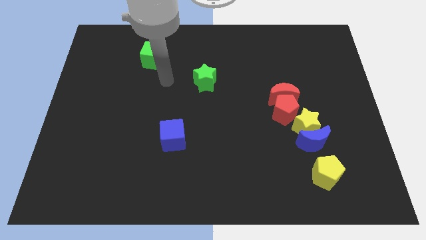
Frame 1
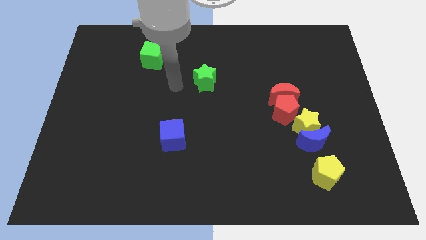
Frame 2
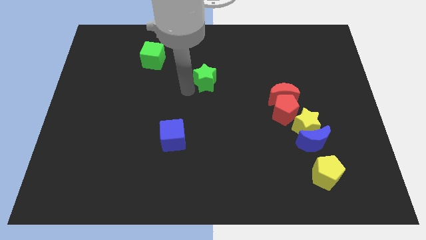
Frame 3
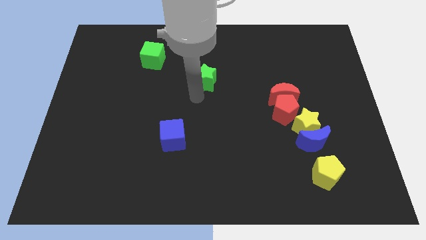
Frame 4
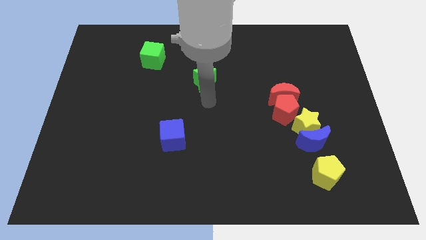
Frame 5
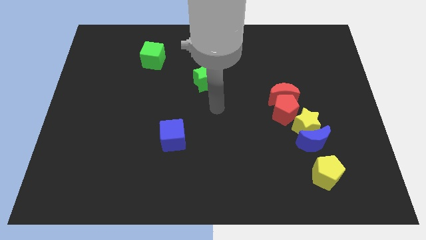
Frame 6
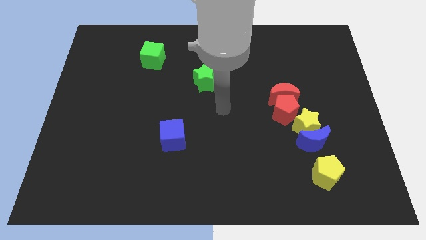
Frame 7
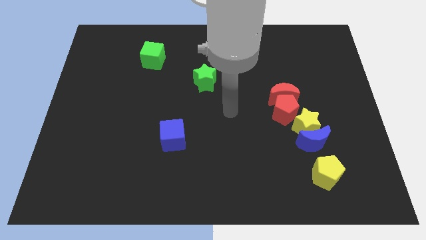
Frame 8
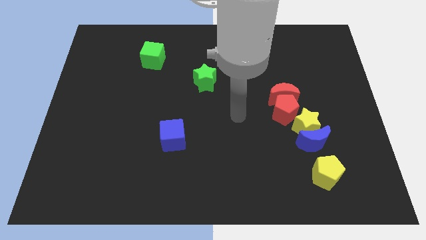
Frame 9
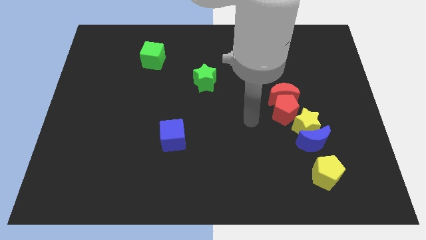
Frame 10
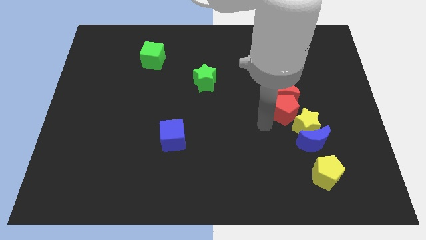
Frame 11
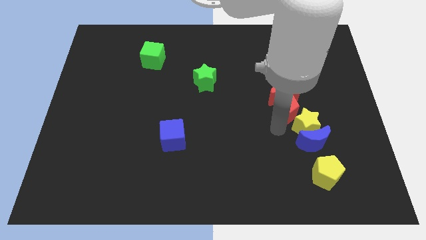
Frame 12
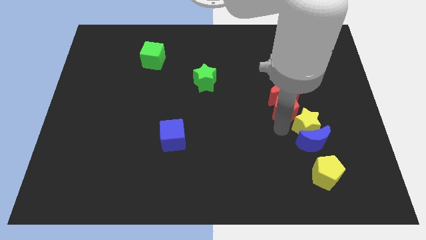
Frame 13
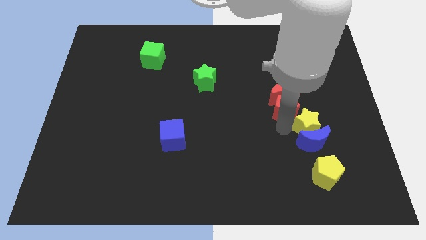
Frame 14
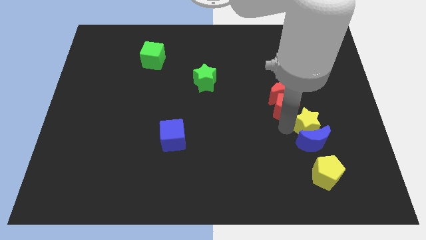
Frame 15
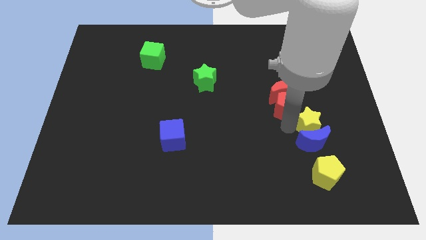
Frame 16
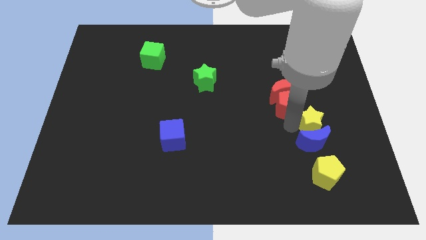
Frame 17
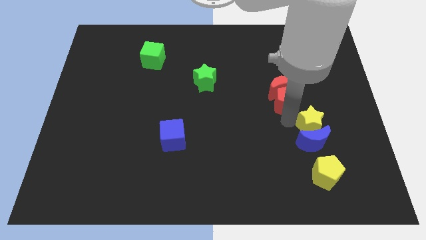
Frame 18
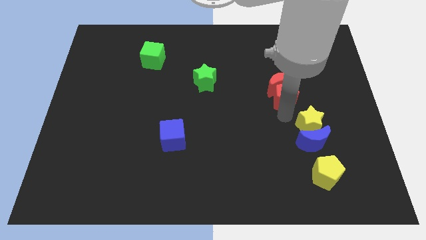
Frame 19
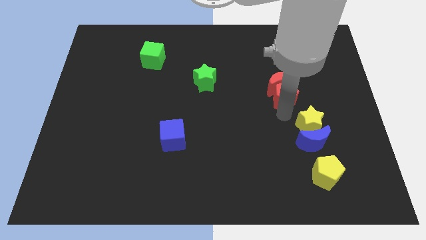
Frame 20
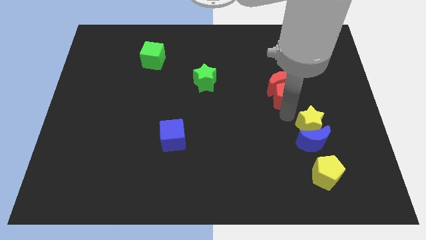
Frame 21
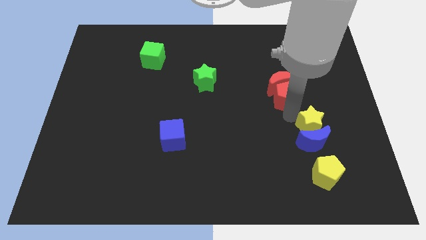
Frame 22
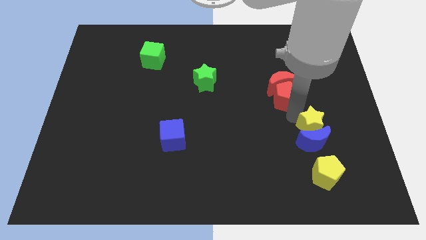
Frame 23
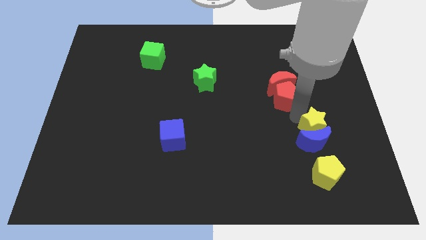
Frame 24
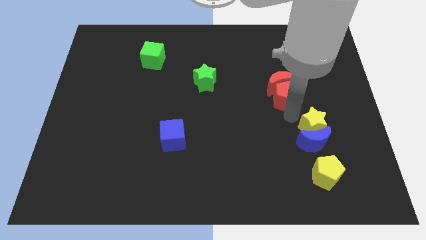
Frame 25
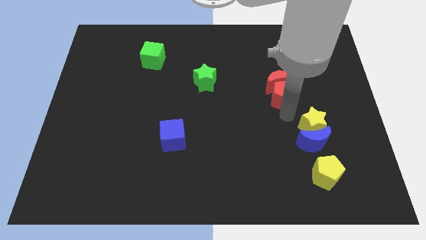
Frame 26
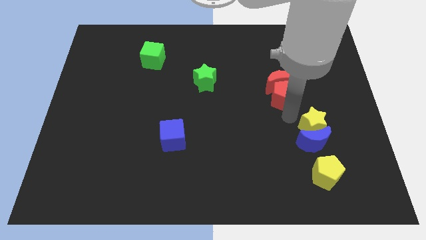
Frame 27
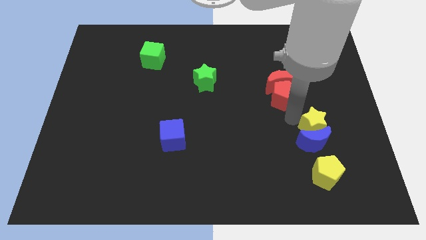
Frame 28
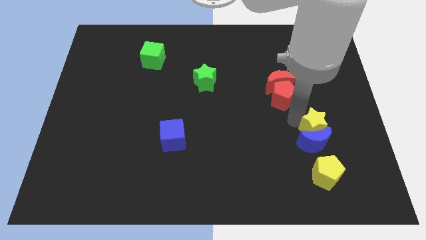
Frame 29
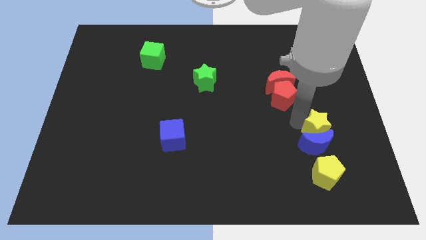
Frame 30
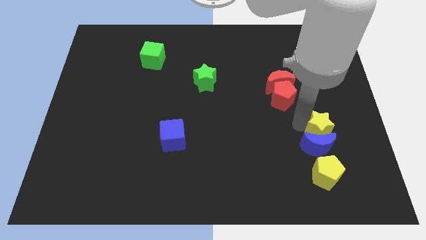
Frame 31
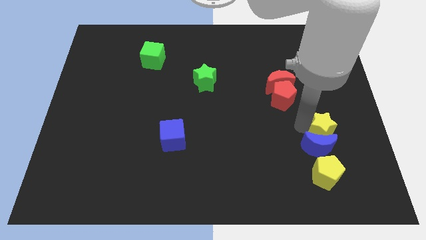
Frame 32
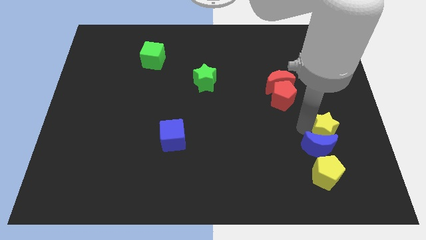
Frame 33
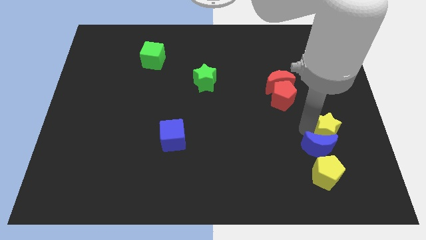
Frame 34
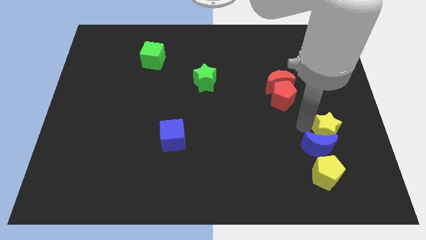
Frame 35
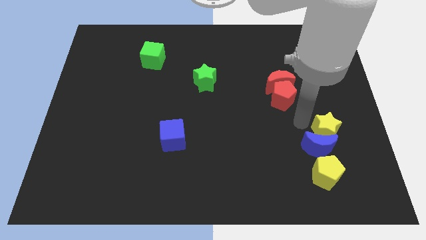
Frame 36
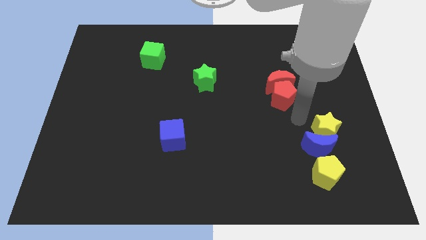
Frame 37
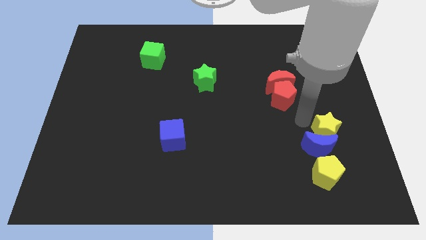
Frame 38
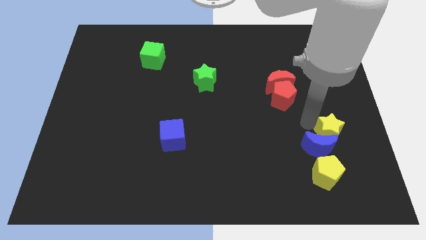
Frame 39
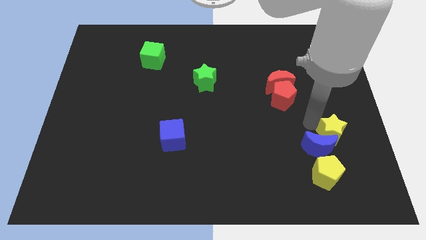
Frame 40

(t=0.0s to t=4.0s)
pull the yellow star apart from the clump

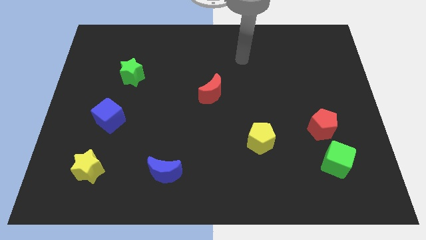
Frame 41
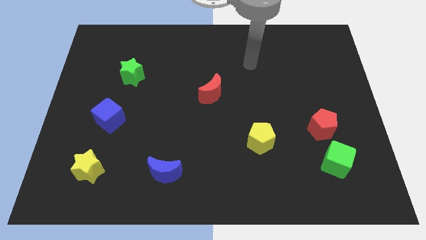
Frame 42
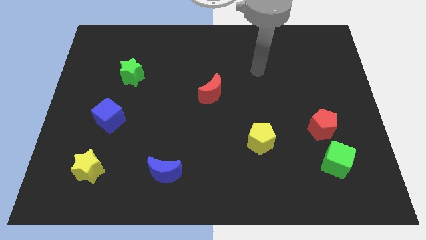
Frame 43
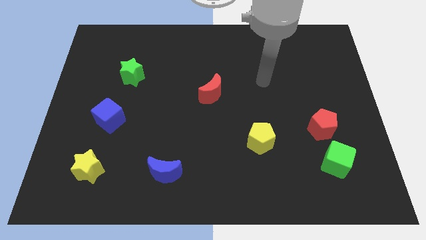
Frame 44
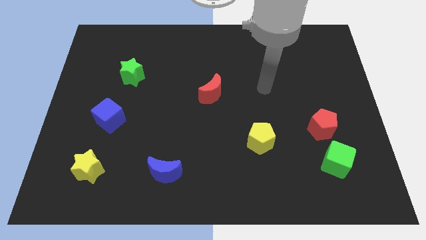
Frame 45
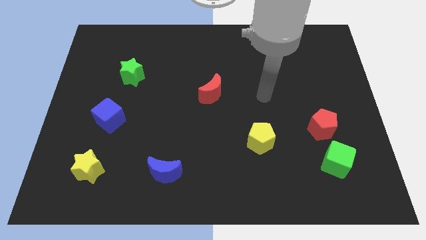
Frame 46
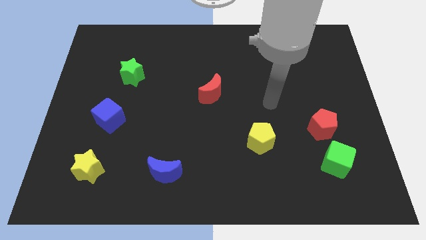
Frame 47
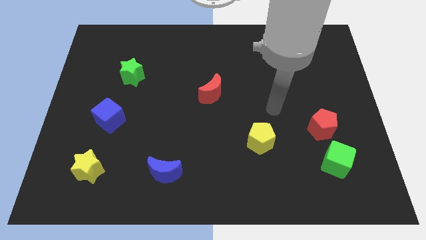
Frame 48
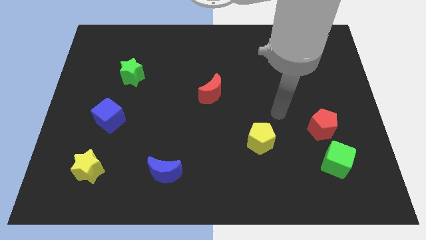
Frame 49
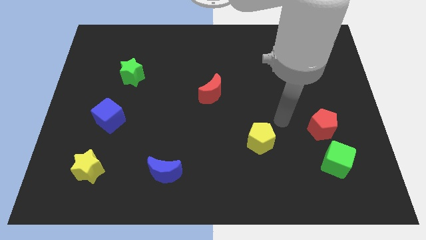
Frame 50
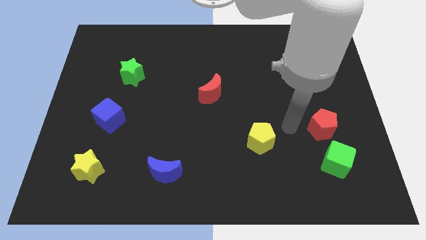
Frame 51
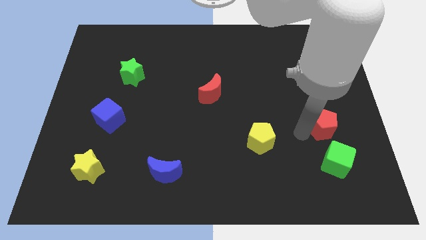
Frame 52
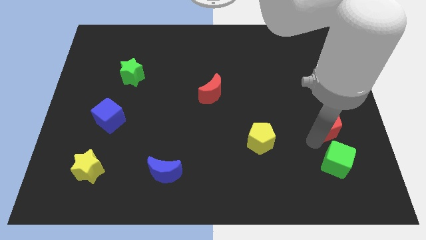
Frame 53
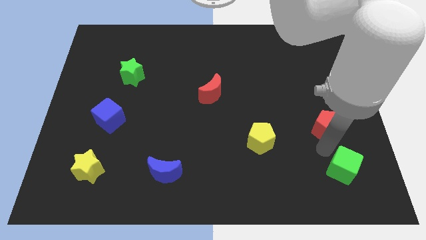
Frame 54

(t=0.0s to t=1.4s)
separate the red pentagon from the green cube

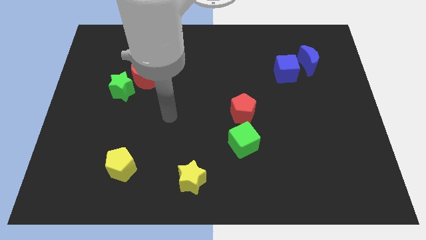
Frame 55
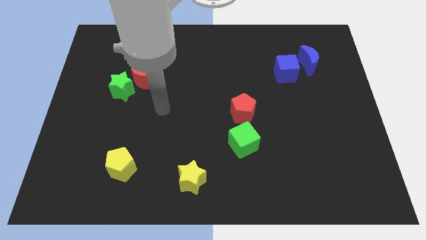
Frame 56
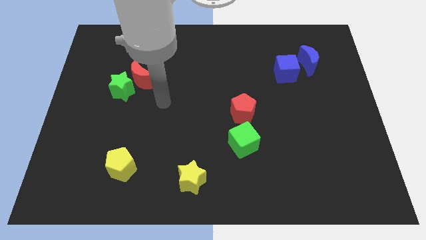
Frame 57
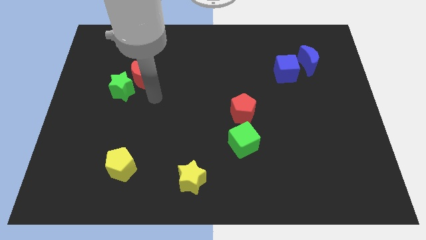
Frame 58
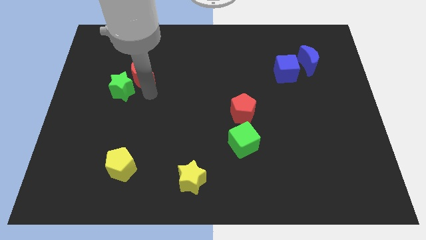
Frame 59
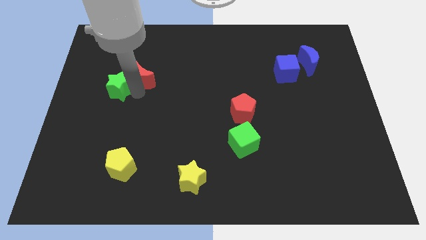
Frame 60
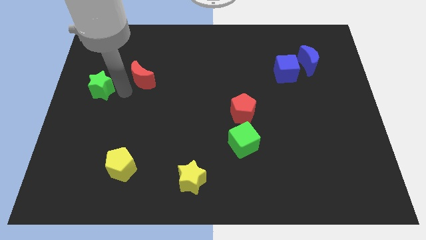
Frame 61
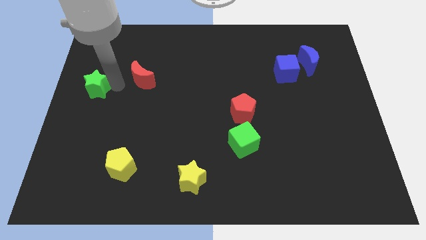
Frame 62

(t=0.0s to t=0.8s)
move the red moon away from the green star

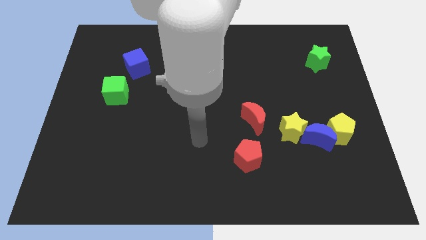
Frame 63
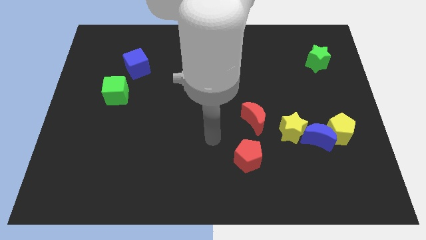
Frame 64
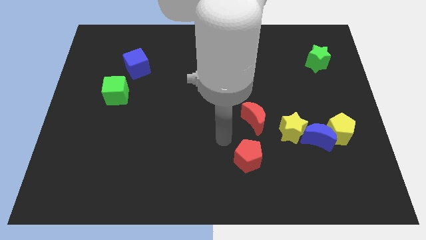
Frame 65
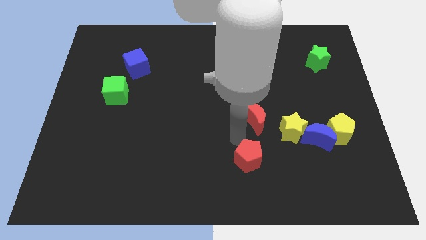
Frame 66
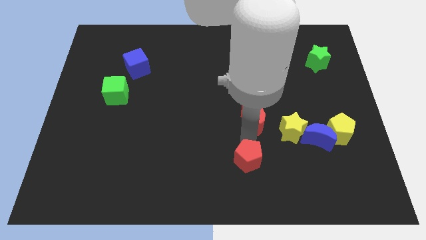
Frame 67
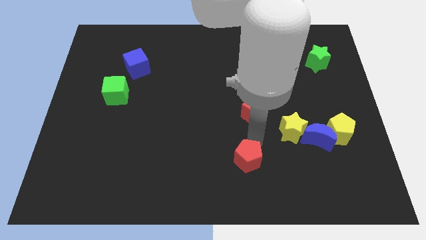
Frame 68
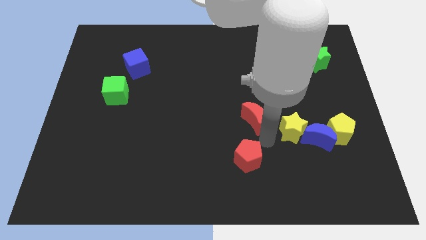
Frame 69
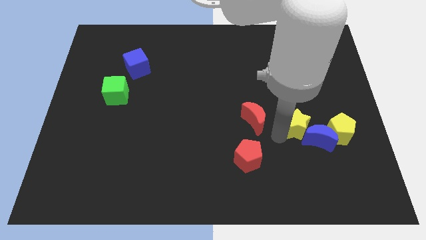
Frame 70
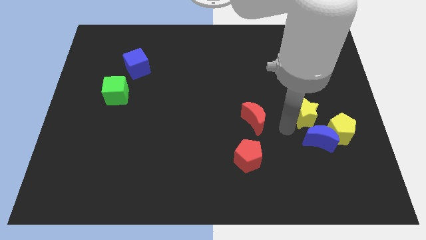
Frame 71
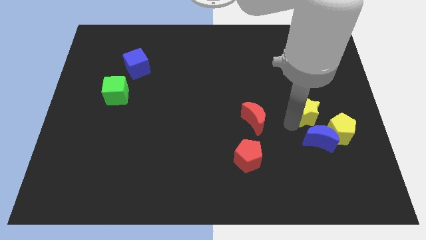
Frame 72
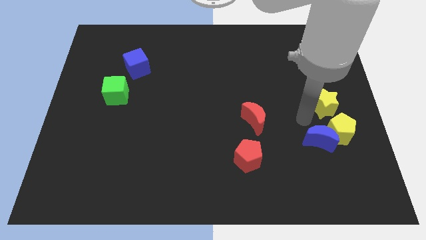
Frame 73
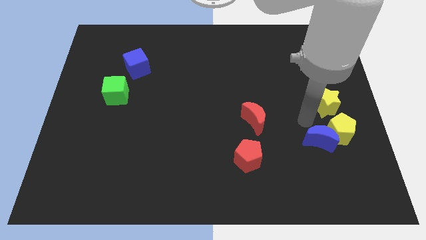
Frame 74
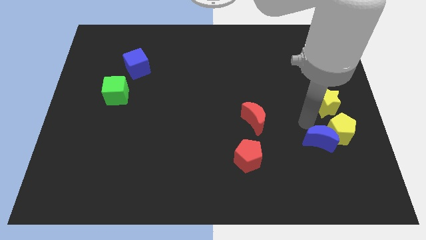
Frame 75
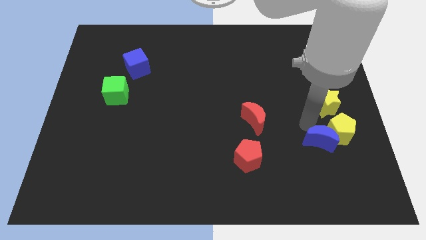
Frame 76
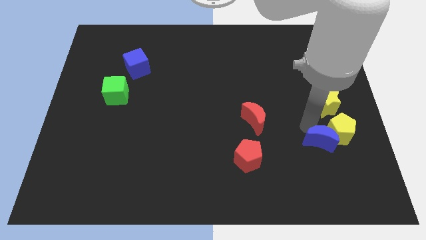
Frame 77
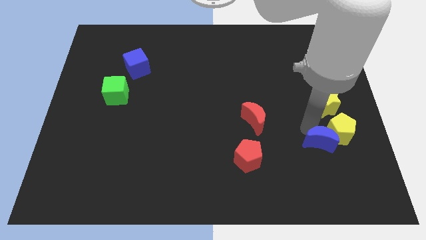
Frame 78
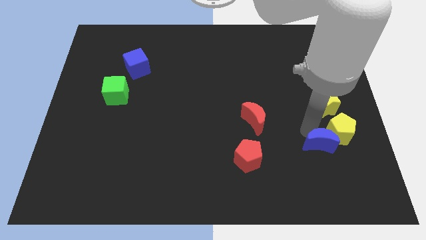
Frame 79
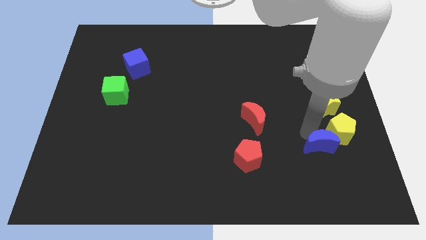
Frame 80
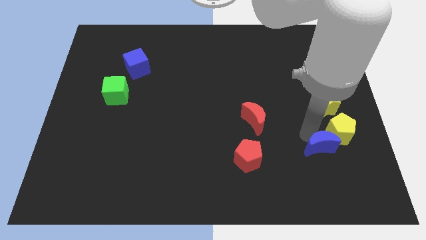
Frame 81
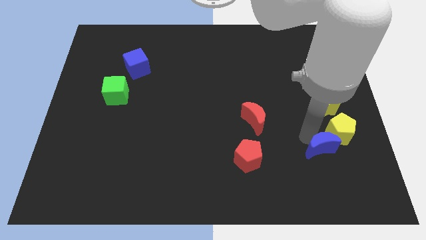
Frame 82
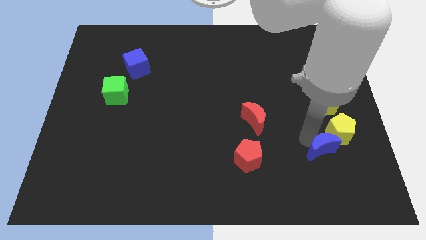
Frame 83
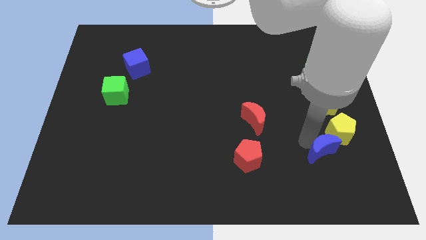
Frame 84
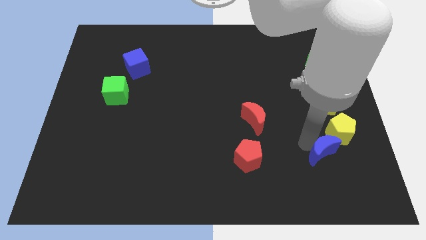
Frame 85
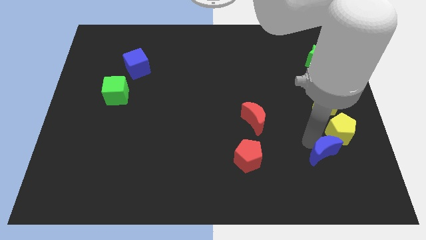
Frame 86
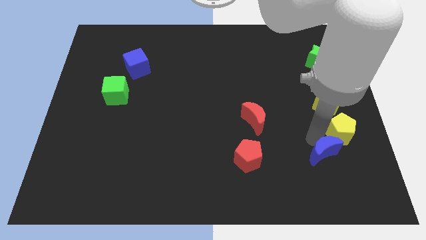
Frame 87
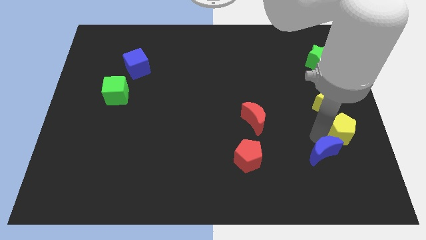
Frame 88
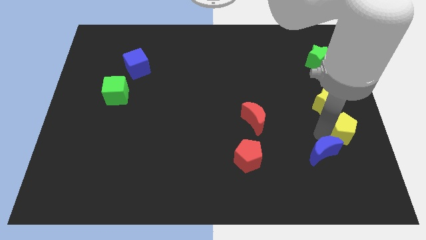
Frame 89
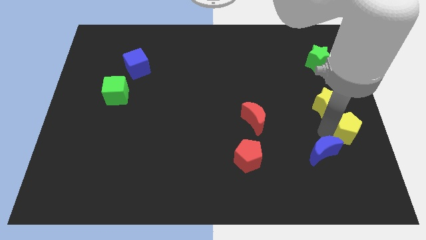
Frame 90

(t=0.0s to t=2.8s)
separate the blue moon from the yellow pentagon and yellow star

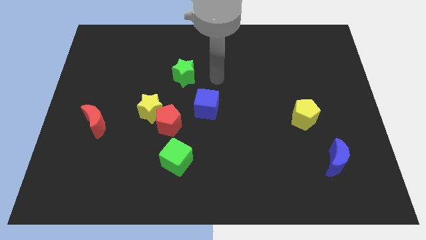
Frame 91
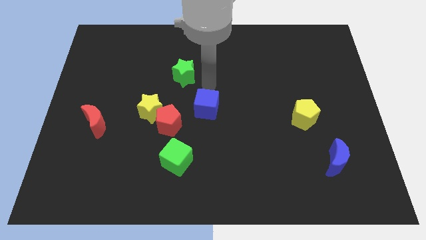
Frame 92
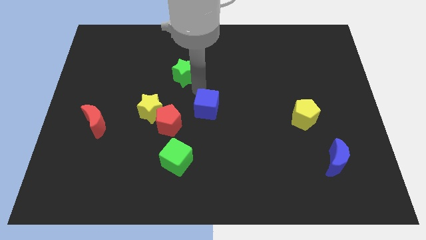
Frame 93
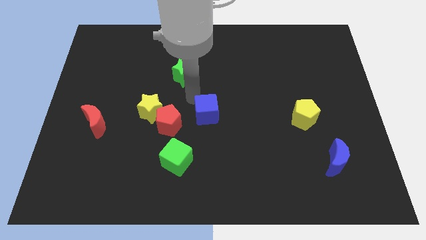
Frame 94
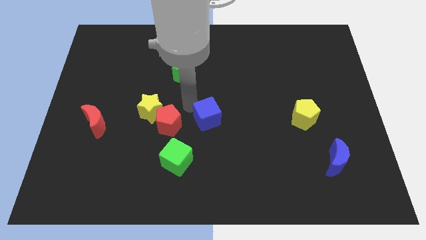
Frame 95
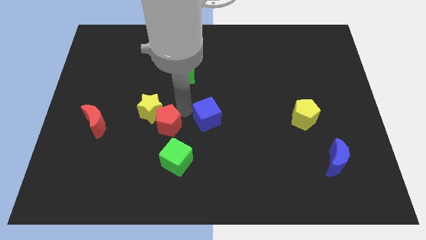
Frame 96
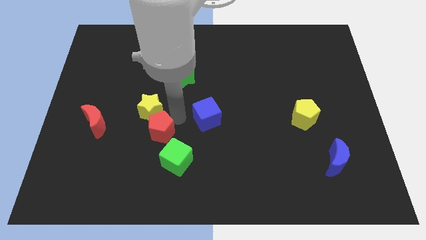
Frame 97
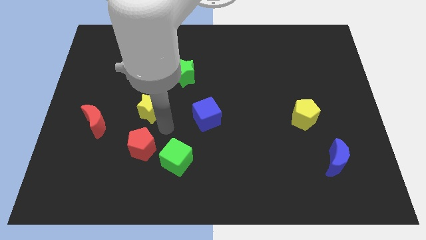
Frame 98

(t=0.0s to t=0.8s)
separate the yellow star from the red pentagon
